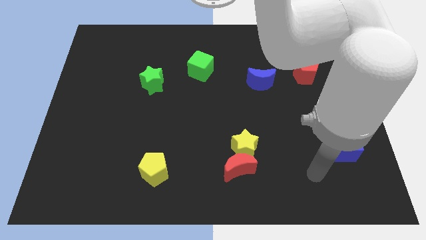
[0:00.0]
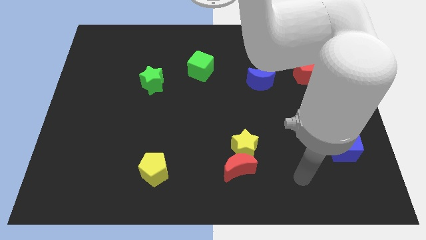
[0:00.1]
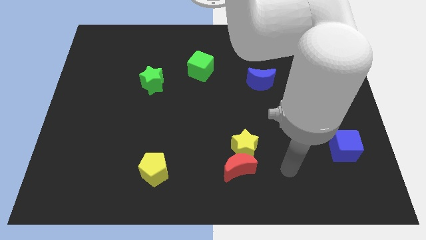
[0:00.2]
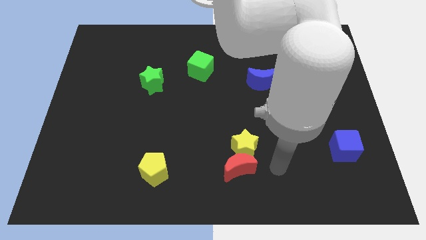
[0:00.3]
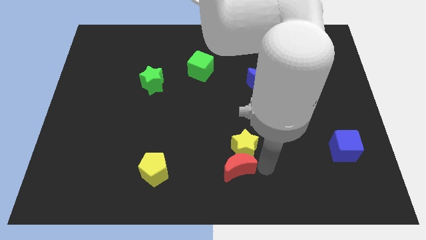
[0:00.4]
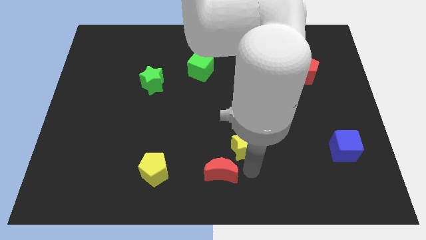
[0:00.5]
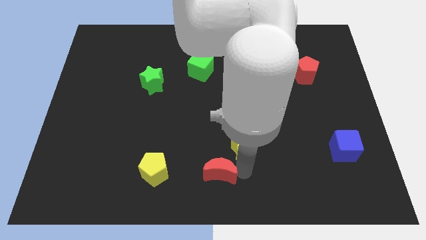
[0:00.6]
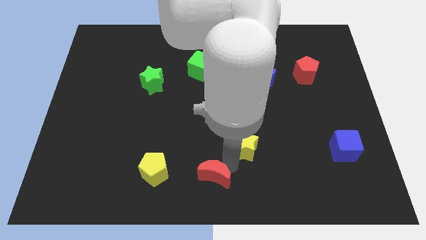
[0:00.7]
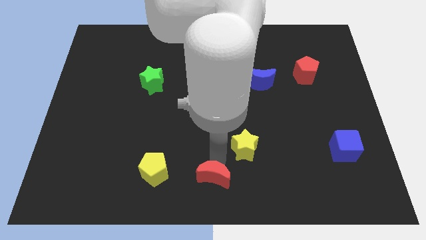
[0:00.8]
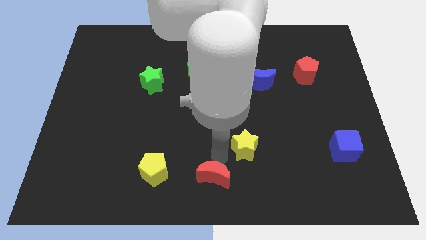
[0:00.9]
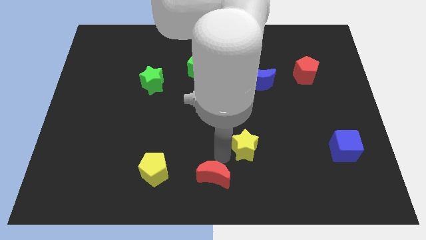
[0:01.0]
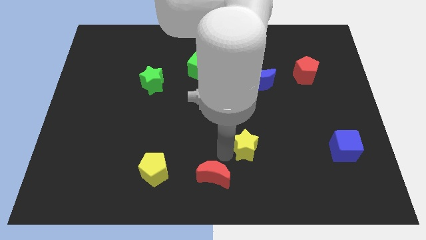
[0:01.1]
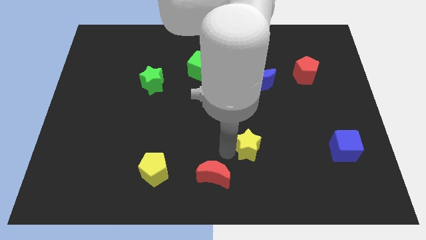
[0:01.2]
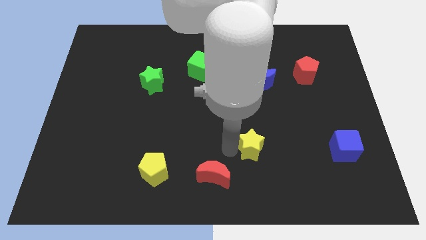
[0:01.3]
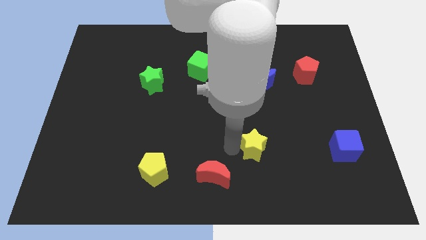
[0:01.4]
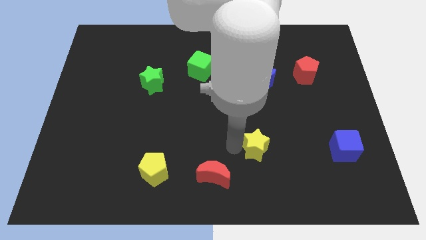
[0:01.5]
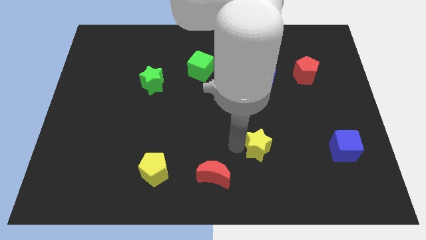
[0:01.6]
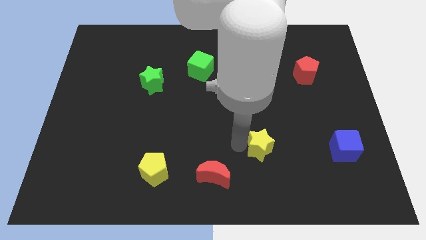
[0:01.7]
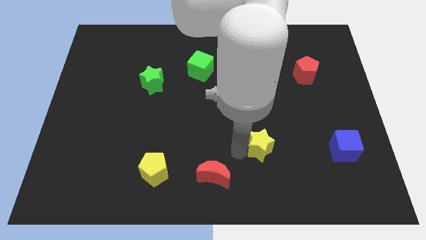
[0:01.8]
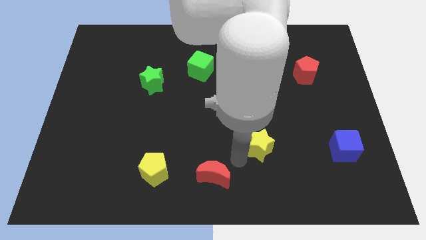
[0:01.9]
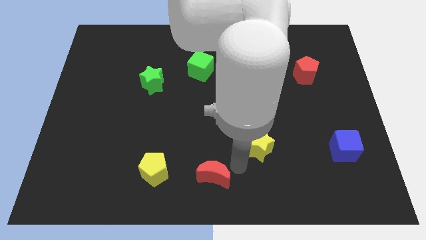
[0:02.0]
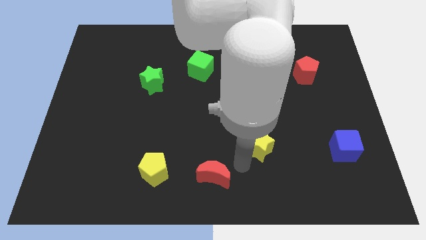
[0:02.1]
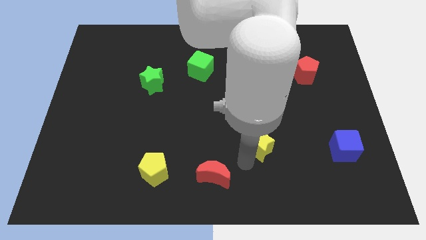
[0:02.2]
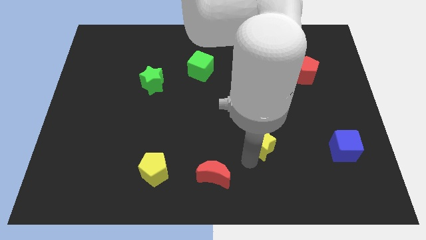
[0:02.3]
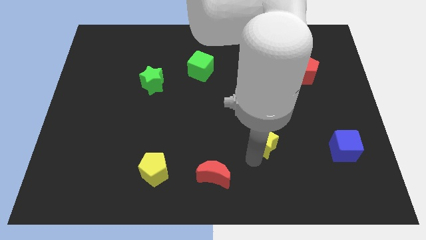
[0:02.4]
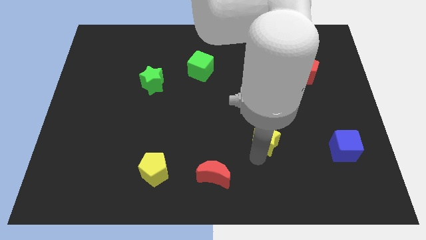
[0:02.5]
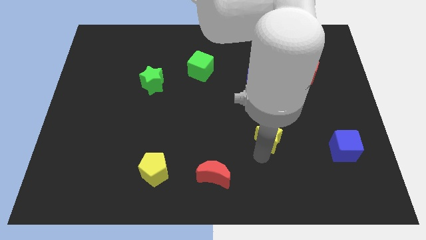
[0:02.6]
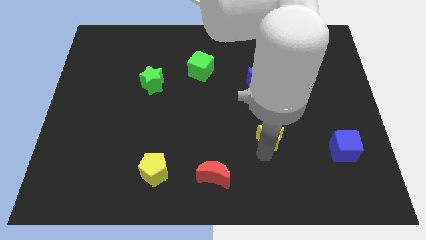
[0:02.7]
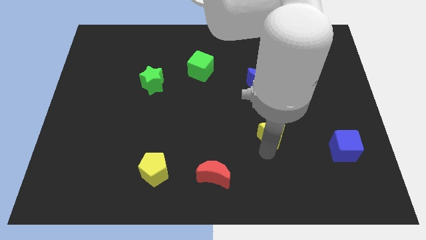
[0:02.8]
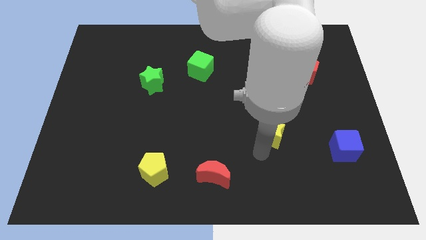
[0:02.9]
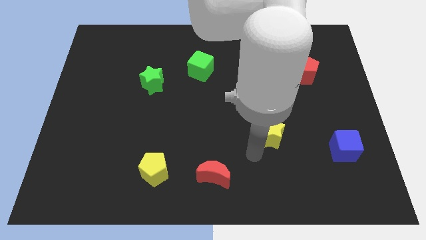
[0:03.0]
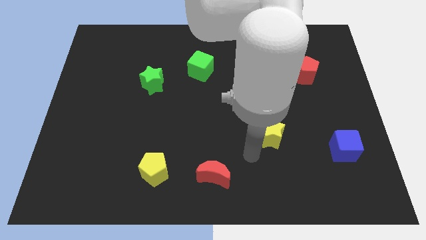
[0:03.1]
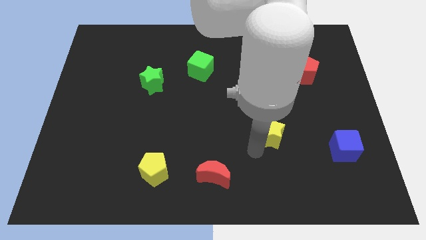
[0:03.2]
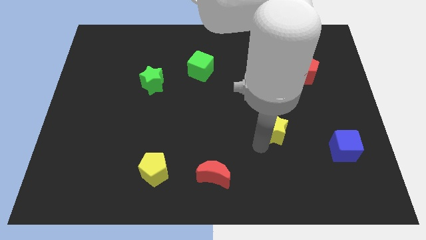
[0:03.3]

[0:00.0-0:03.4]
push the yellow star a bit diagonally upwards and to the right

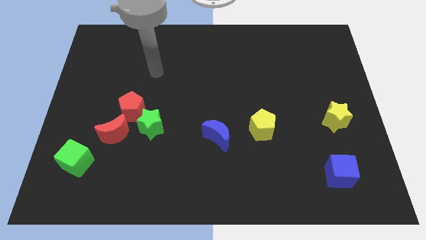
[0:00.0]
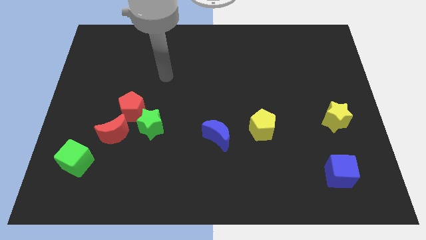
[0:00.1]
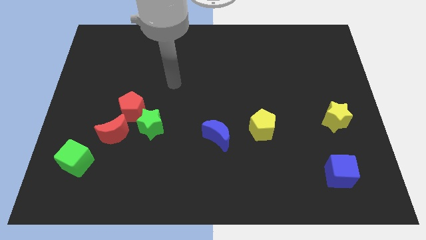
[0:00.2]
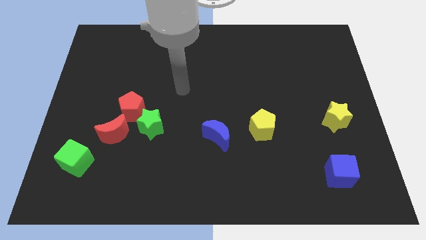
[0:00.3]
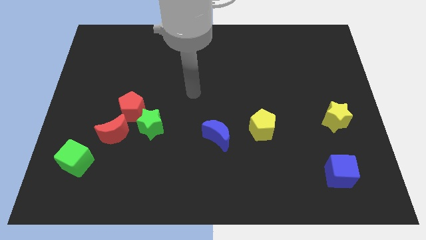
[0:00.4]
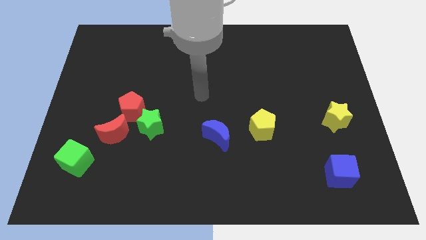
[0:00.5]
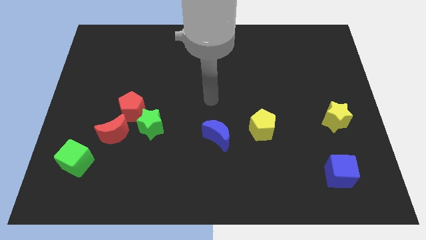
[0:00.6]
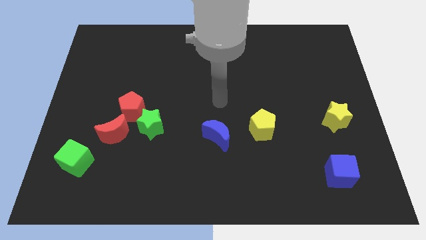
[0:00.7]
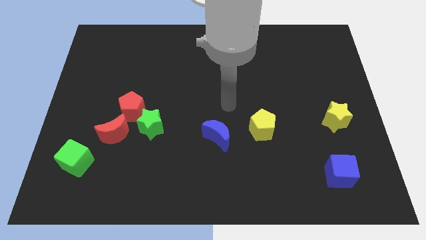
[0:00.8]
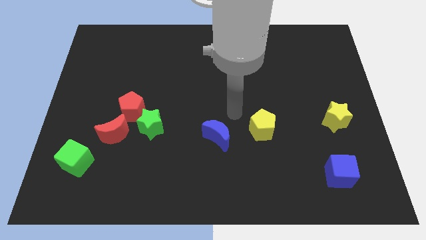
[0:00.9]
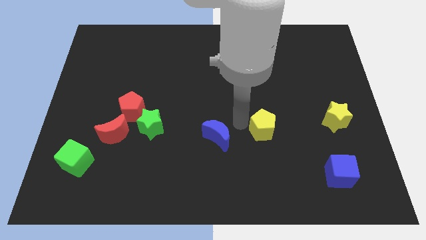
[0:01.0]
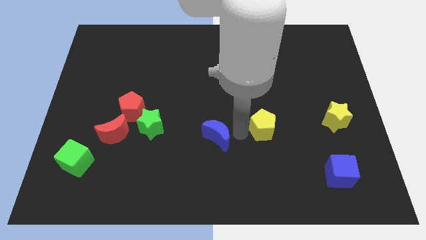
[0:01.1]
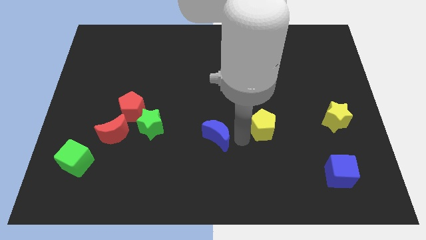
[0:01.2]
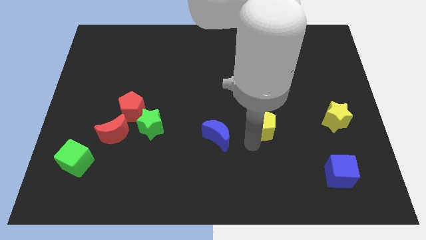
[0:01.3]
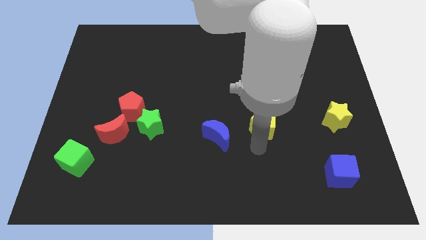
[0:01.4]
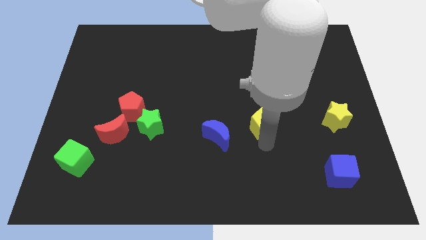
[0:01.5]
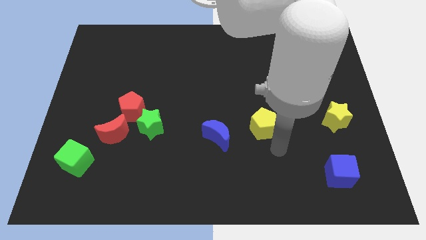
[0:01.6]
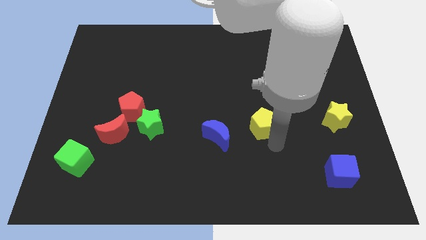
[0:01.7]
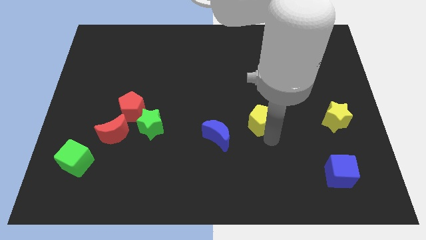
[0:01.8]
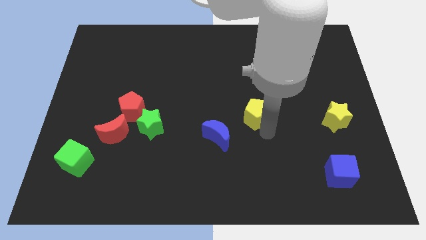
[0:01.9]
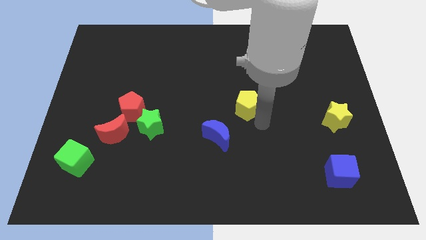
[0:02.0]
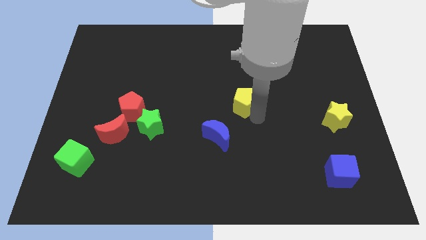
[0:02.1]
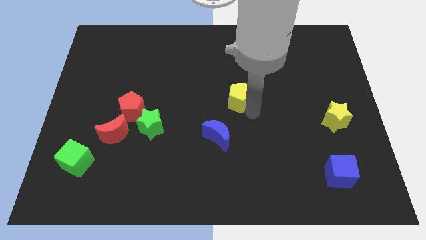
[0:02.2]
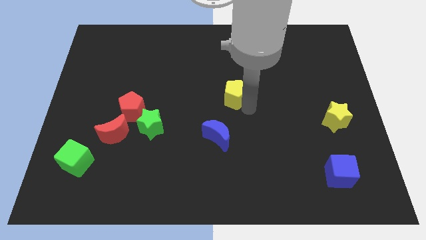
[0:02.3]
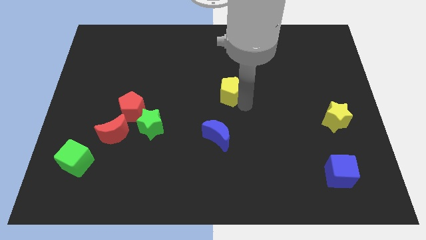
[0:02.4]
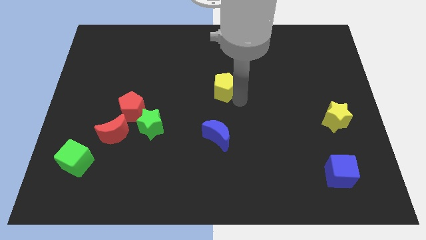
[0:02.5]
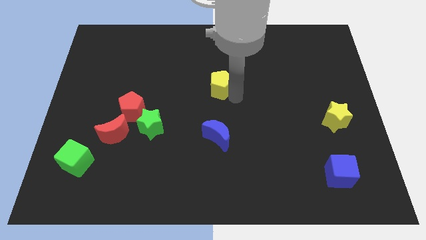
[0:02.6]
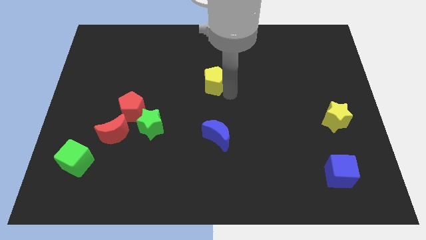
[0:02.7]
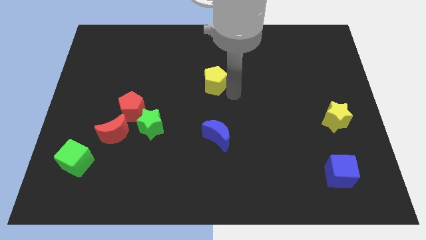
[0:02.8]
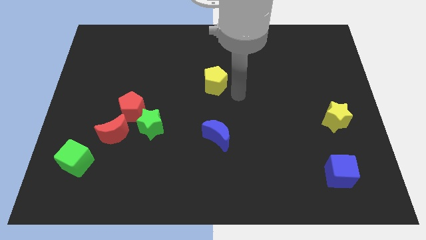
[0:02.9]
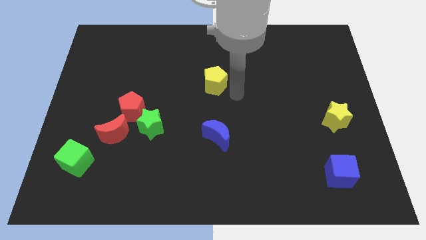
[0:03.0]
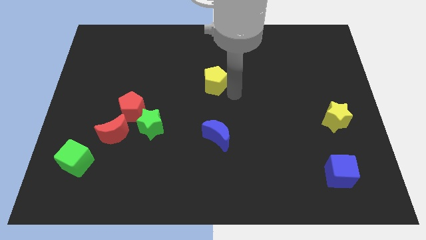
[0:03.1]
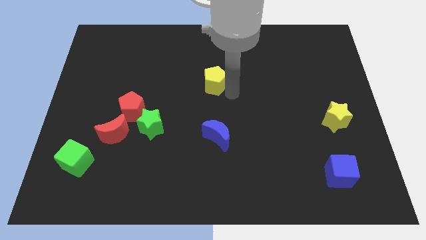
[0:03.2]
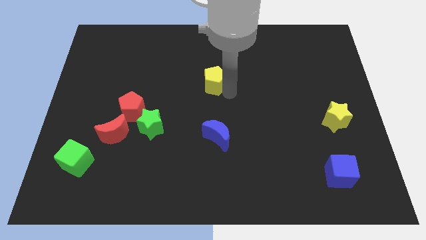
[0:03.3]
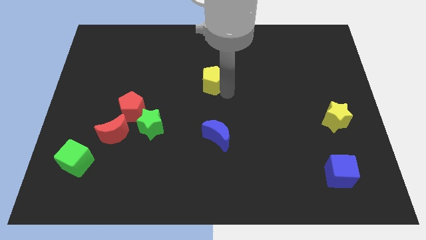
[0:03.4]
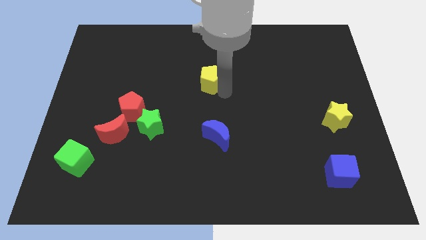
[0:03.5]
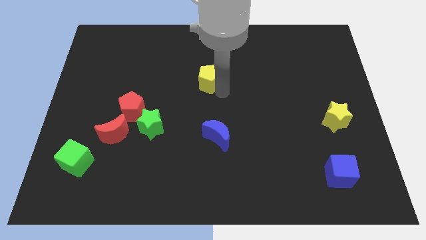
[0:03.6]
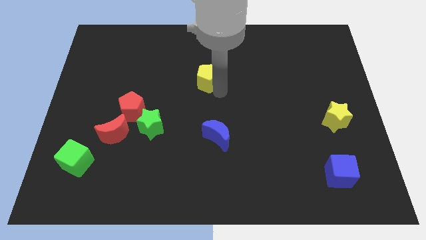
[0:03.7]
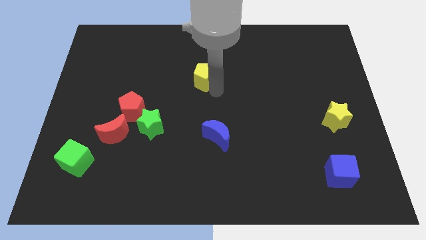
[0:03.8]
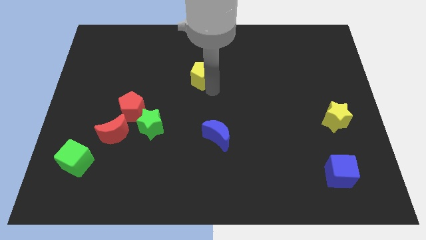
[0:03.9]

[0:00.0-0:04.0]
push the yellow pentagon upwards and then left

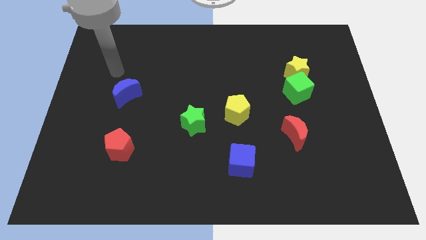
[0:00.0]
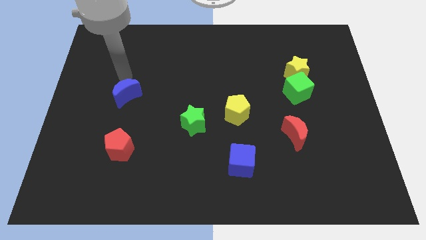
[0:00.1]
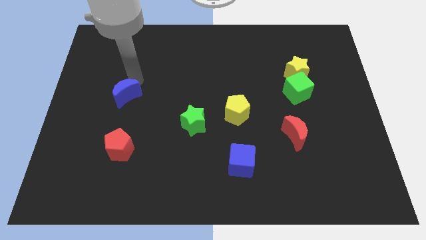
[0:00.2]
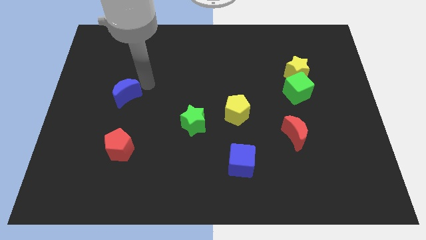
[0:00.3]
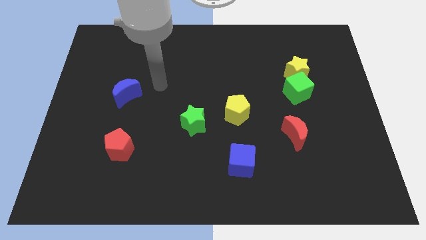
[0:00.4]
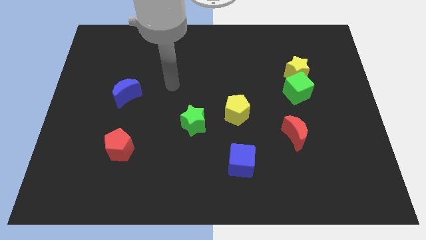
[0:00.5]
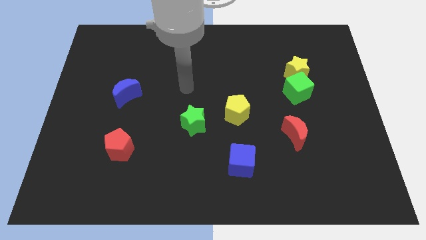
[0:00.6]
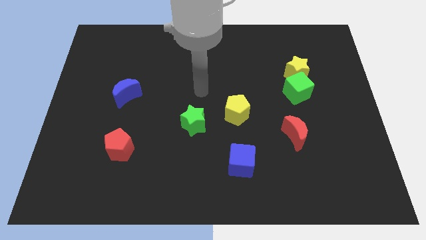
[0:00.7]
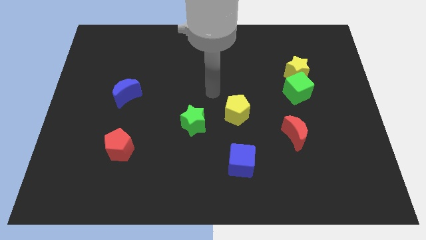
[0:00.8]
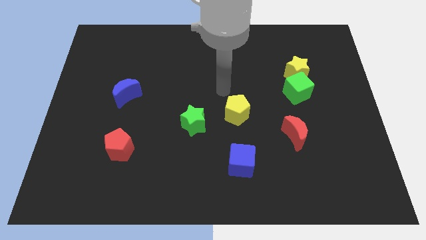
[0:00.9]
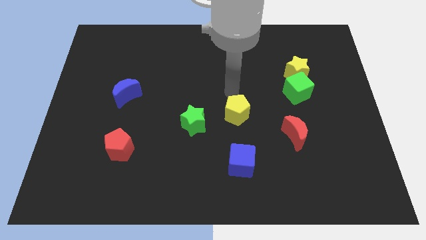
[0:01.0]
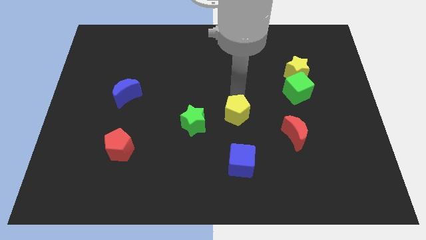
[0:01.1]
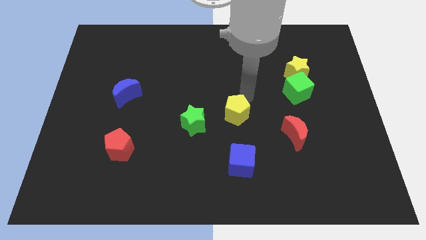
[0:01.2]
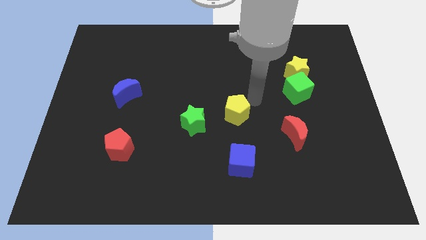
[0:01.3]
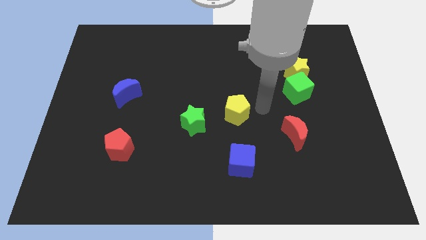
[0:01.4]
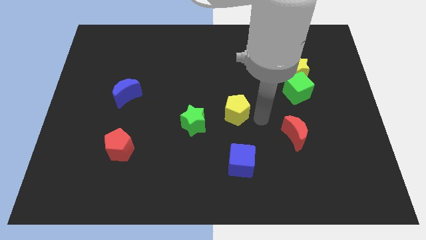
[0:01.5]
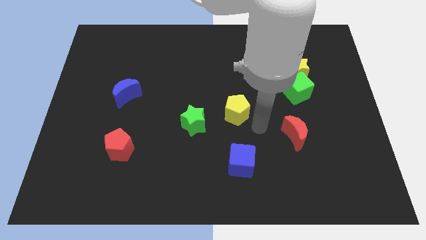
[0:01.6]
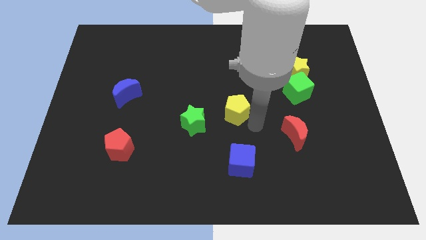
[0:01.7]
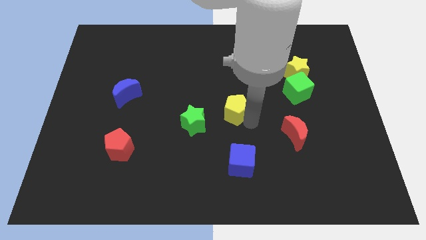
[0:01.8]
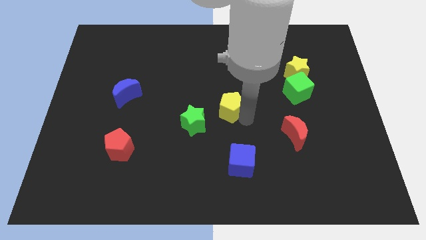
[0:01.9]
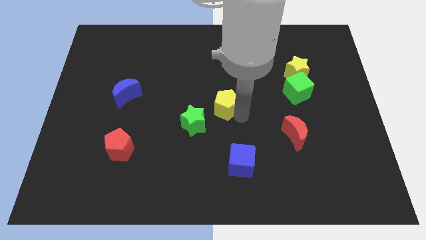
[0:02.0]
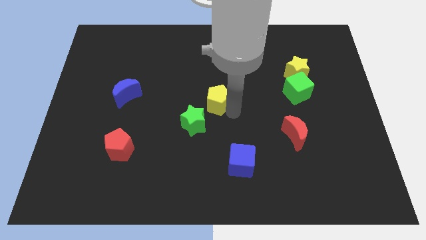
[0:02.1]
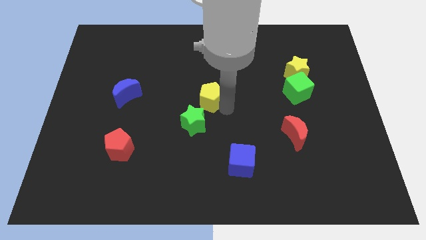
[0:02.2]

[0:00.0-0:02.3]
slide the yellow pentagon a little bit upwards and left
